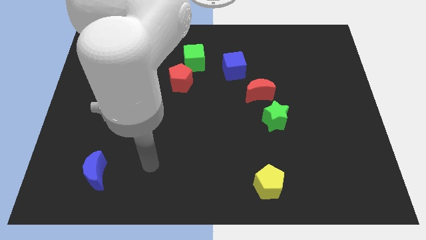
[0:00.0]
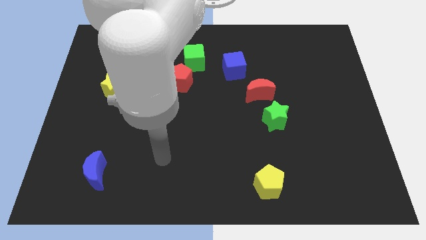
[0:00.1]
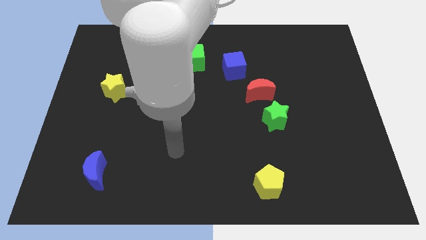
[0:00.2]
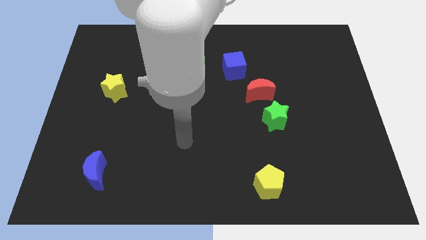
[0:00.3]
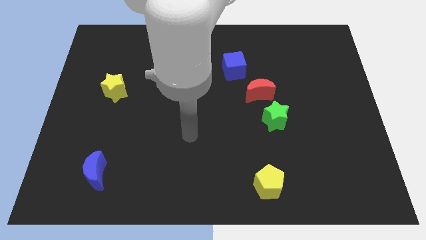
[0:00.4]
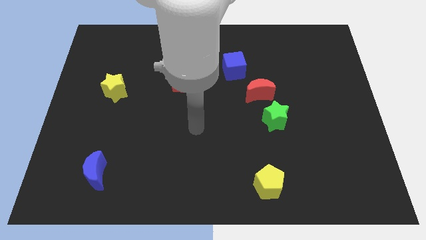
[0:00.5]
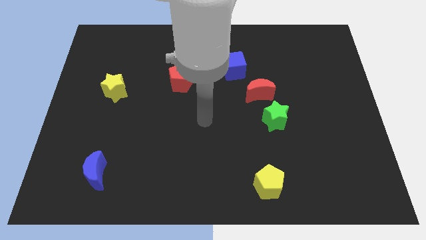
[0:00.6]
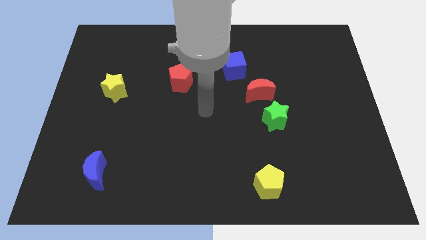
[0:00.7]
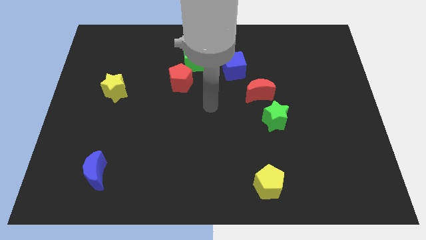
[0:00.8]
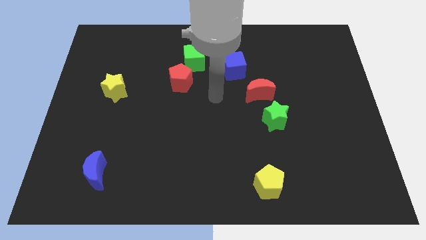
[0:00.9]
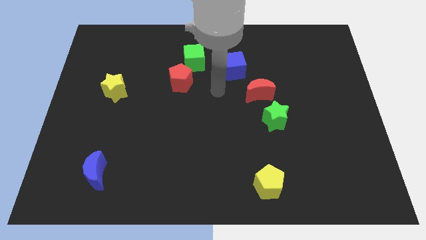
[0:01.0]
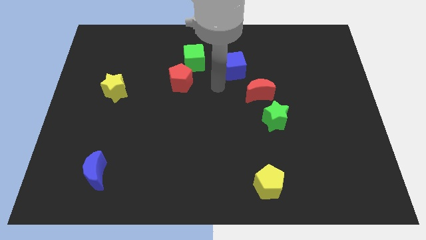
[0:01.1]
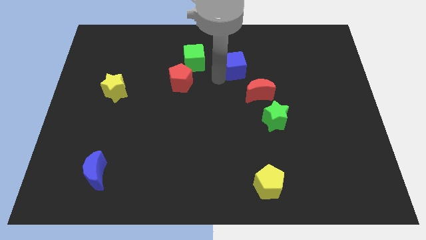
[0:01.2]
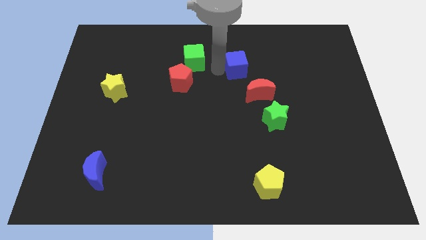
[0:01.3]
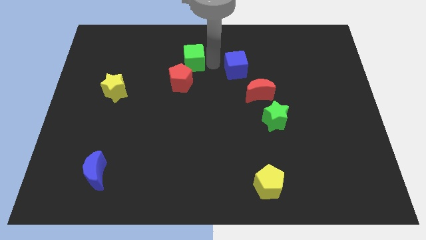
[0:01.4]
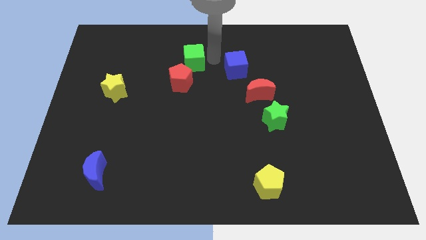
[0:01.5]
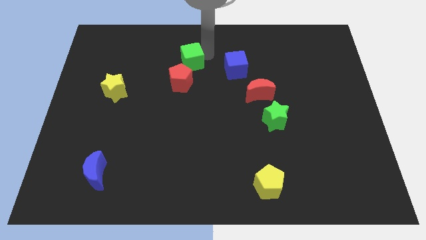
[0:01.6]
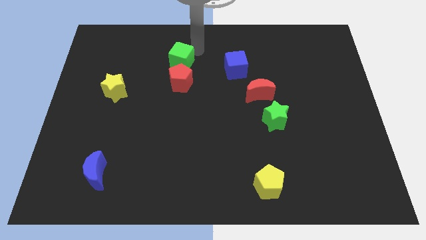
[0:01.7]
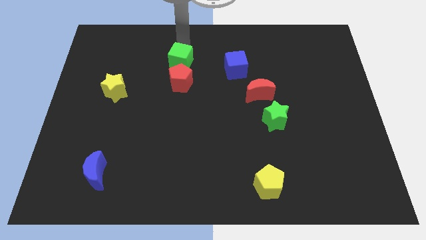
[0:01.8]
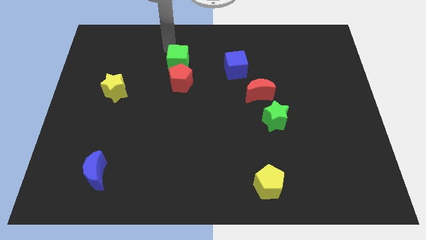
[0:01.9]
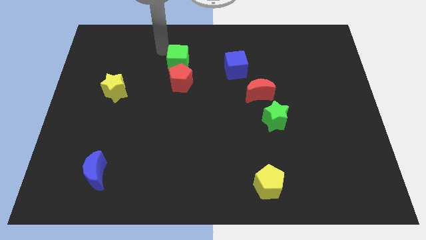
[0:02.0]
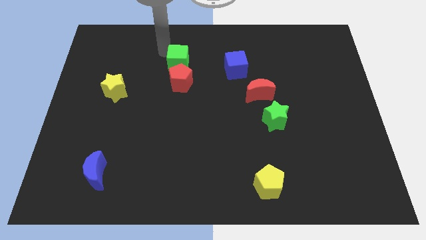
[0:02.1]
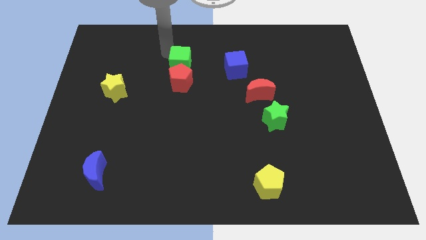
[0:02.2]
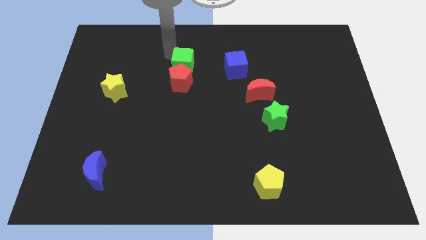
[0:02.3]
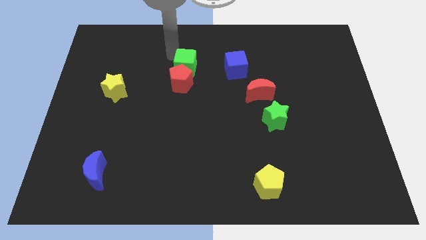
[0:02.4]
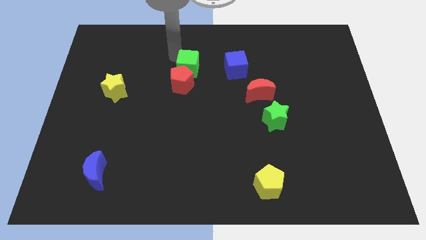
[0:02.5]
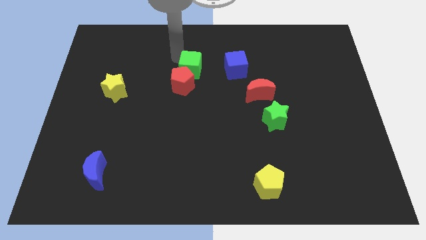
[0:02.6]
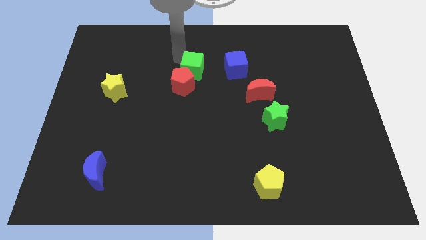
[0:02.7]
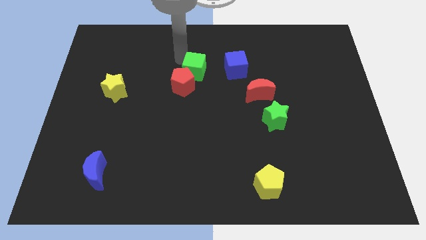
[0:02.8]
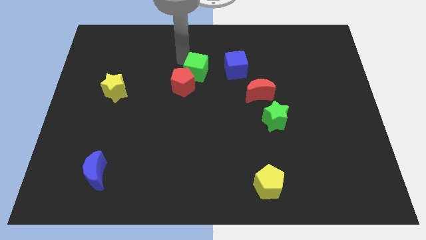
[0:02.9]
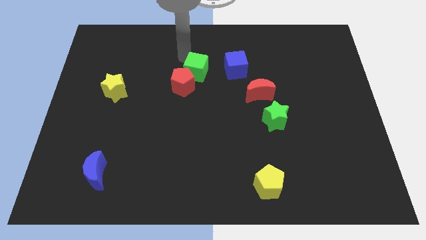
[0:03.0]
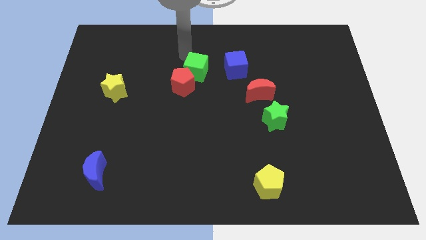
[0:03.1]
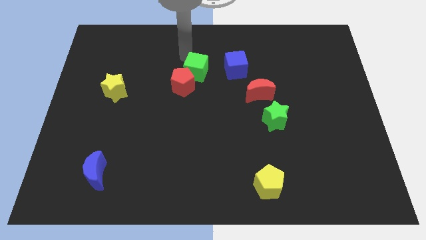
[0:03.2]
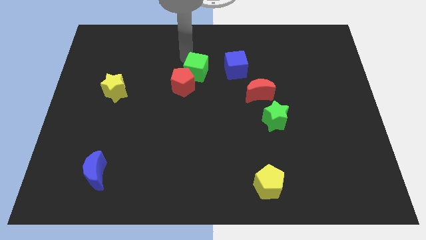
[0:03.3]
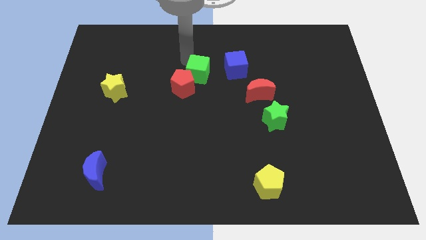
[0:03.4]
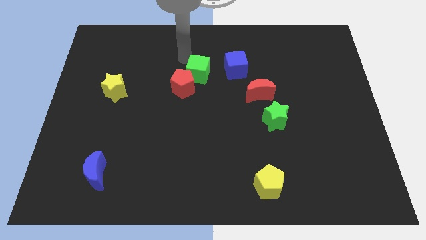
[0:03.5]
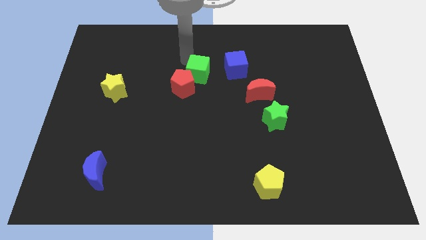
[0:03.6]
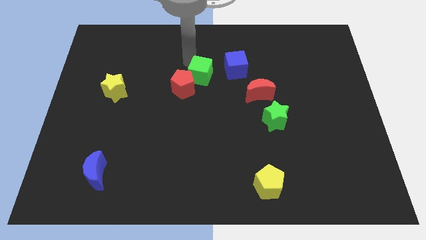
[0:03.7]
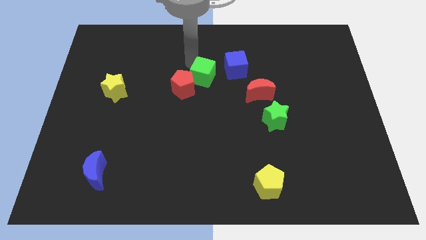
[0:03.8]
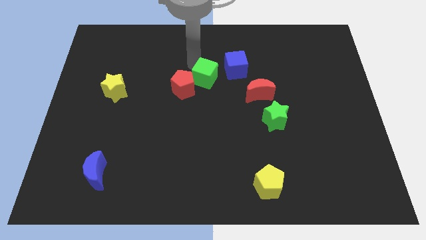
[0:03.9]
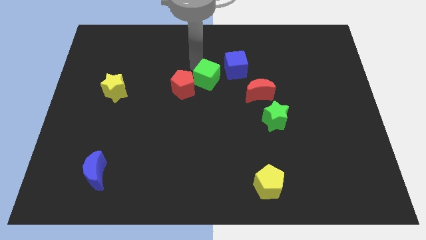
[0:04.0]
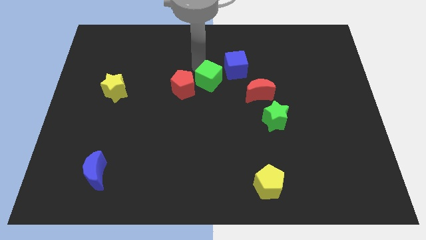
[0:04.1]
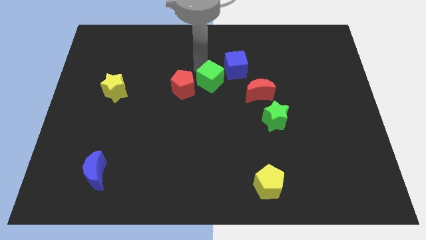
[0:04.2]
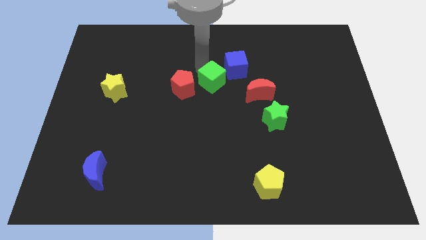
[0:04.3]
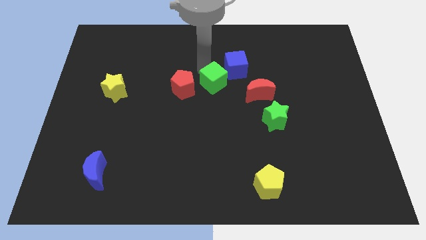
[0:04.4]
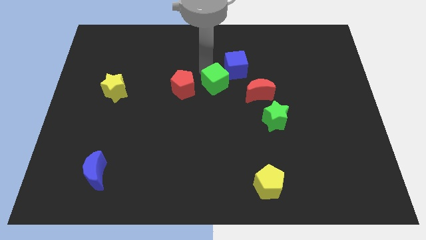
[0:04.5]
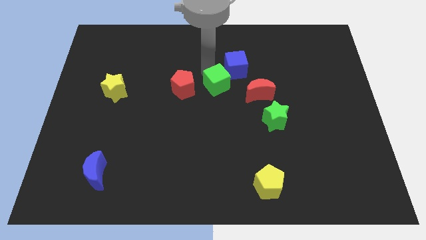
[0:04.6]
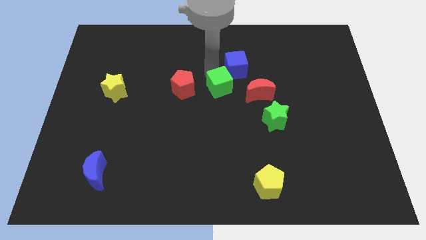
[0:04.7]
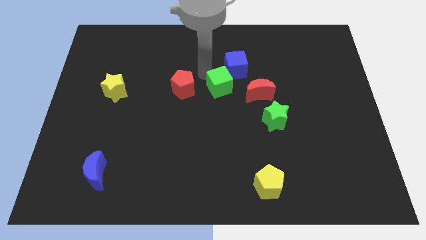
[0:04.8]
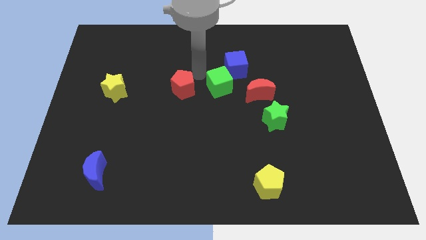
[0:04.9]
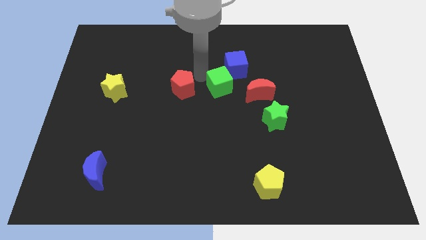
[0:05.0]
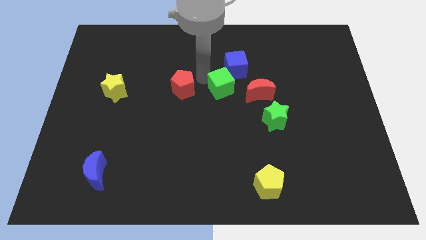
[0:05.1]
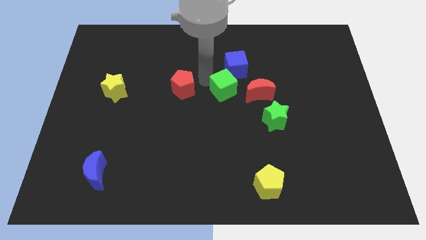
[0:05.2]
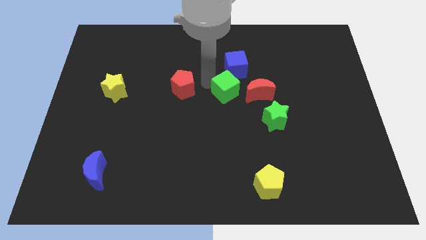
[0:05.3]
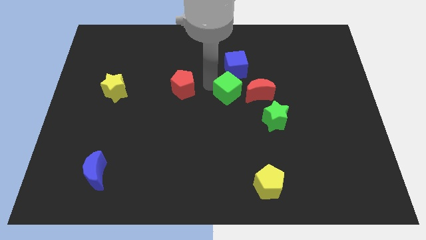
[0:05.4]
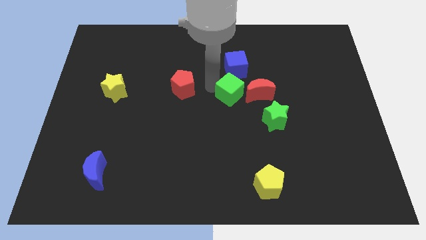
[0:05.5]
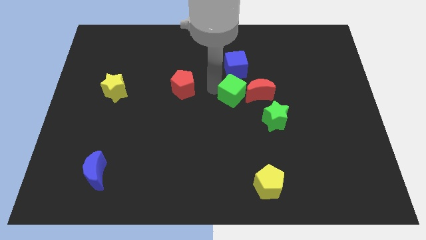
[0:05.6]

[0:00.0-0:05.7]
put the green cube to the top left side of the green star

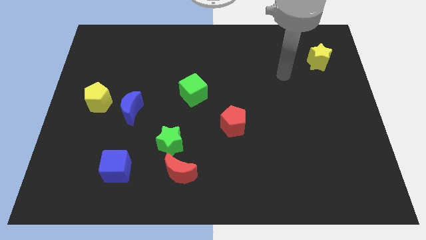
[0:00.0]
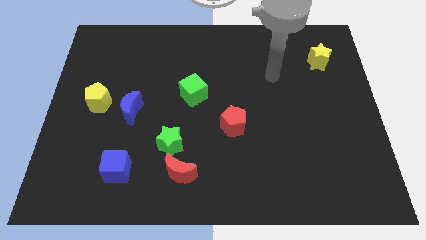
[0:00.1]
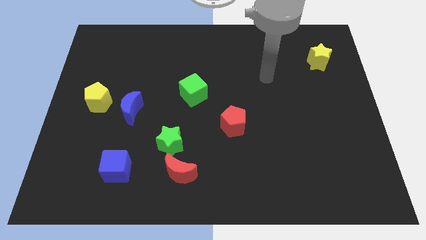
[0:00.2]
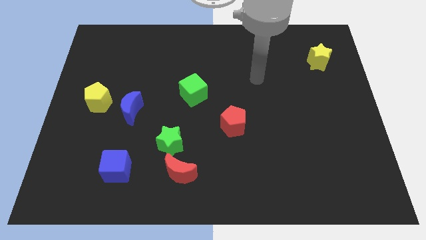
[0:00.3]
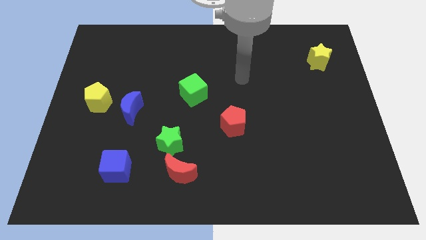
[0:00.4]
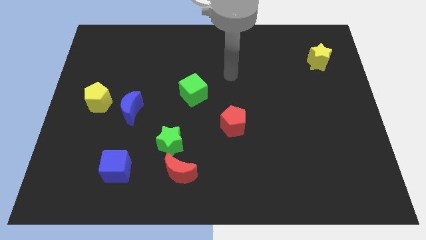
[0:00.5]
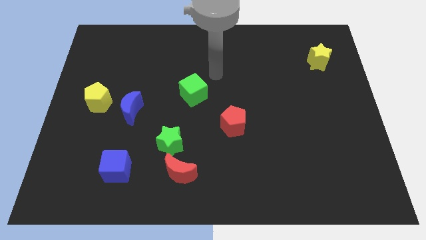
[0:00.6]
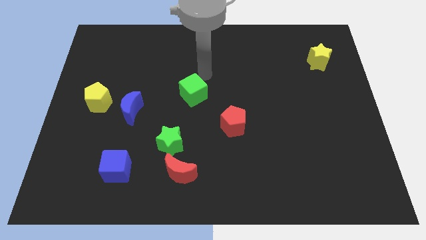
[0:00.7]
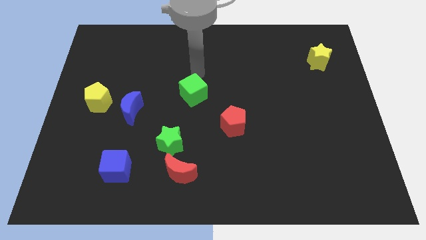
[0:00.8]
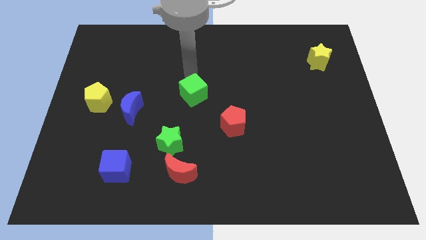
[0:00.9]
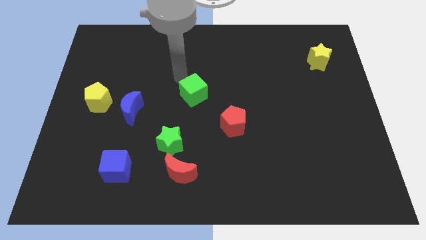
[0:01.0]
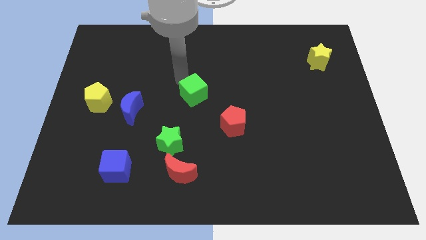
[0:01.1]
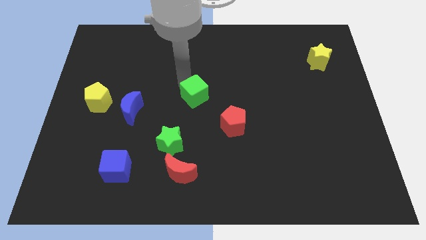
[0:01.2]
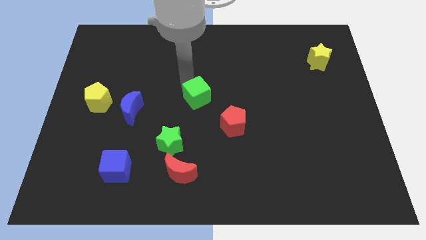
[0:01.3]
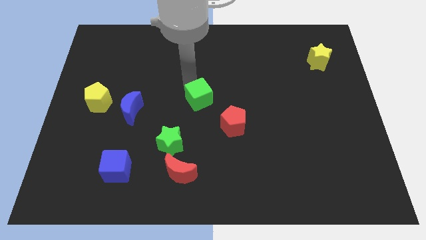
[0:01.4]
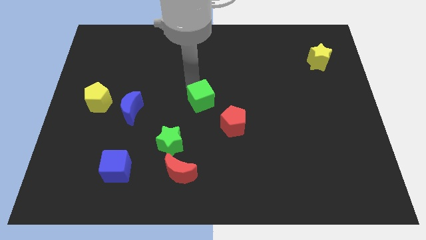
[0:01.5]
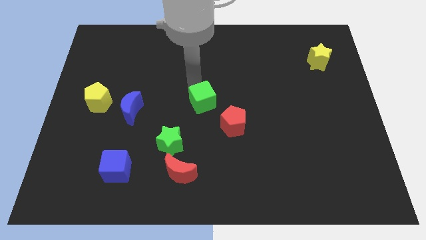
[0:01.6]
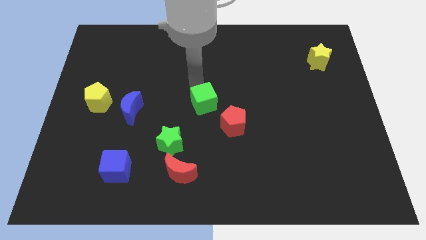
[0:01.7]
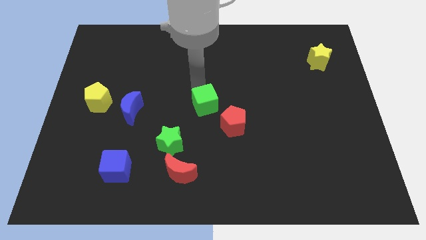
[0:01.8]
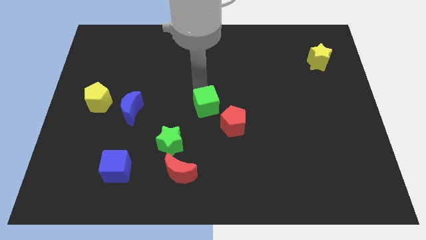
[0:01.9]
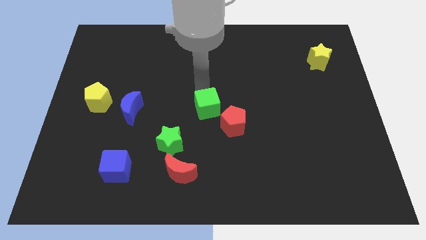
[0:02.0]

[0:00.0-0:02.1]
move the green cube diagonally up and to the right of the green star
